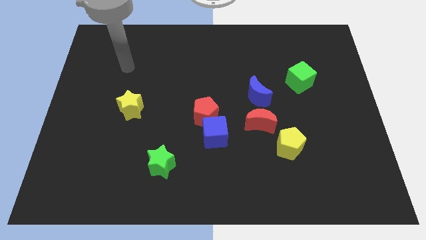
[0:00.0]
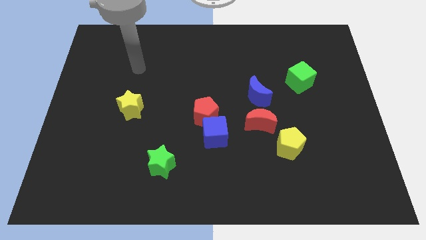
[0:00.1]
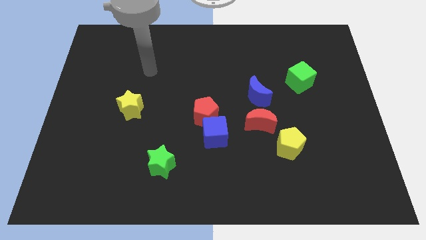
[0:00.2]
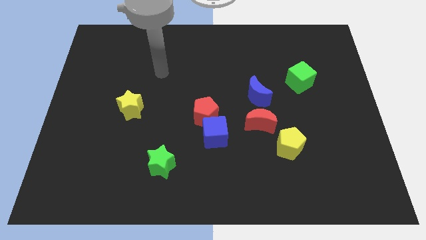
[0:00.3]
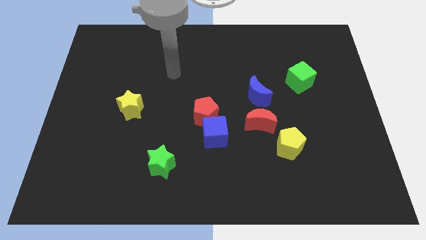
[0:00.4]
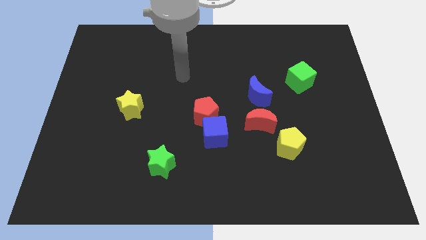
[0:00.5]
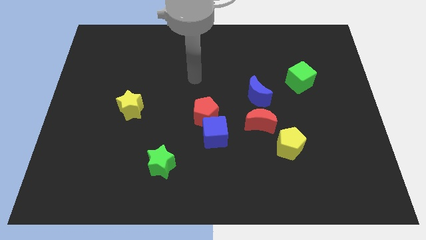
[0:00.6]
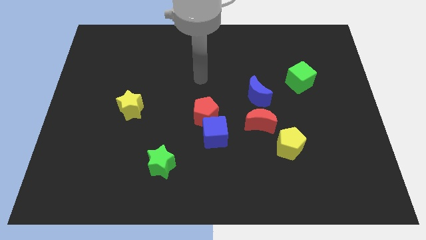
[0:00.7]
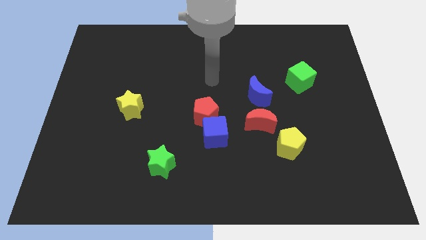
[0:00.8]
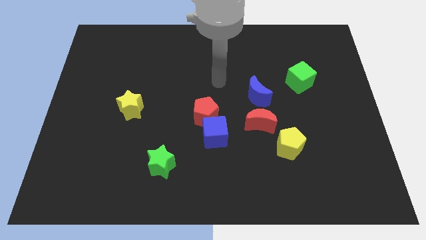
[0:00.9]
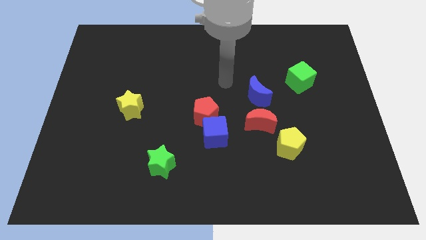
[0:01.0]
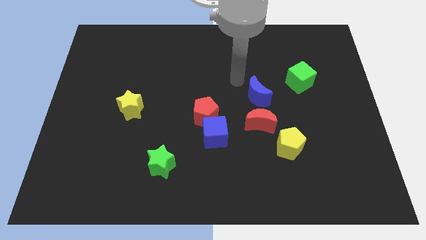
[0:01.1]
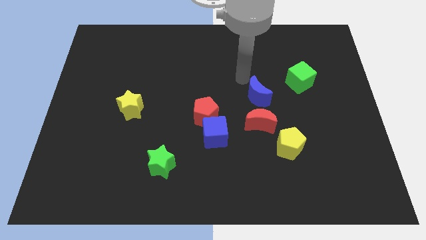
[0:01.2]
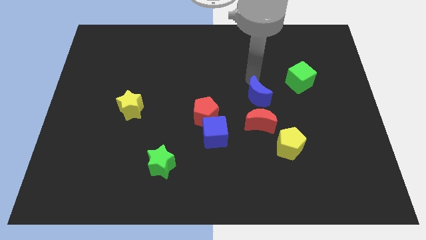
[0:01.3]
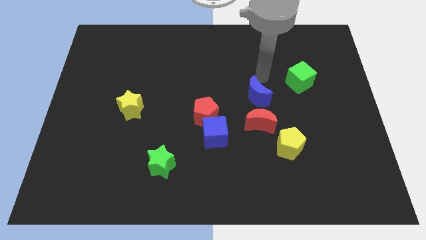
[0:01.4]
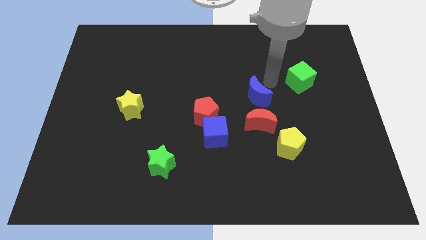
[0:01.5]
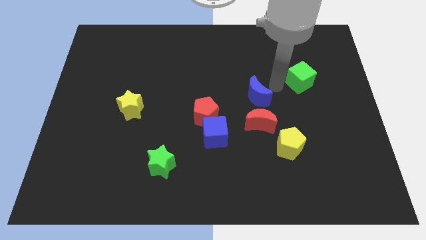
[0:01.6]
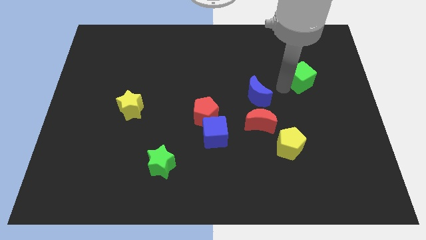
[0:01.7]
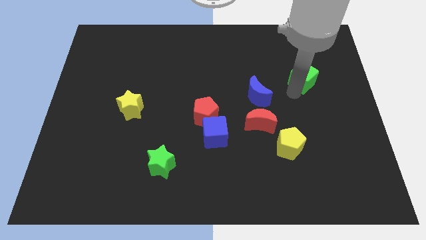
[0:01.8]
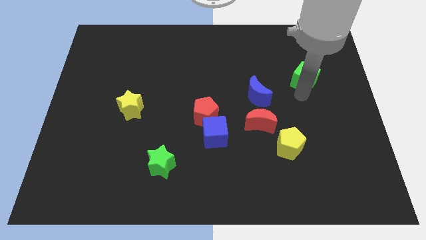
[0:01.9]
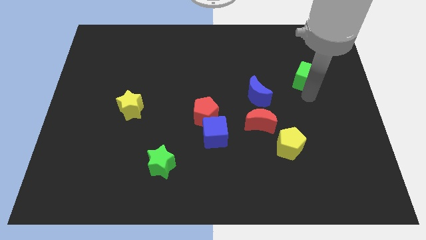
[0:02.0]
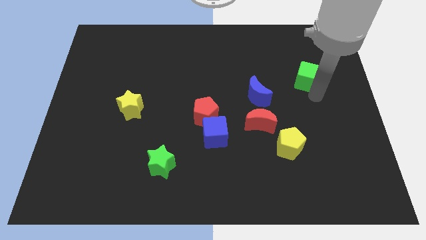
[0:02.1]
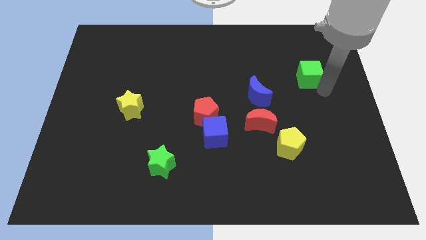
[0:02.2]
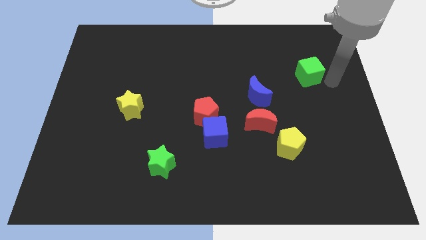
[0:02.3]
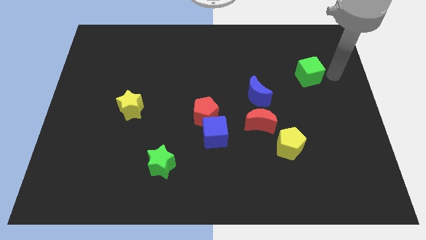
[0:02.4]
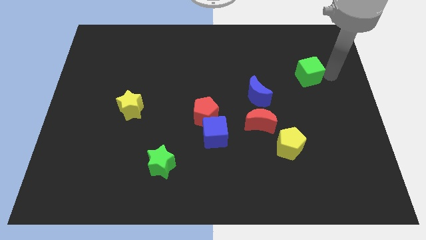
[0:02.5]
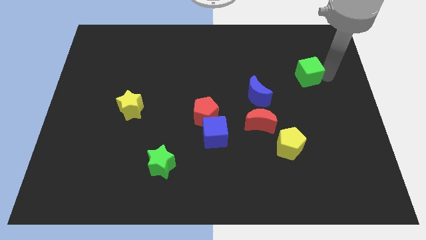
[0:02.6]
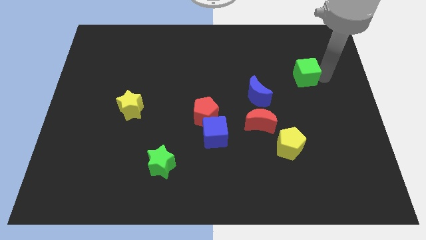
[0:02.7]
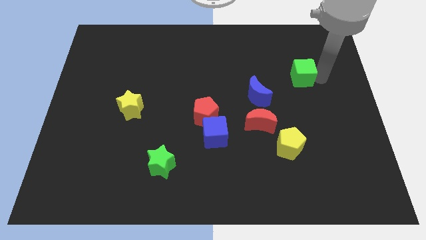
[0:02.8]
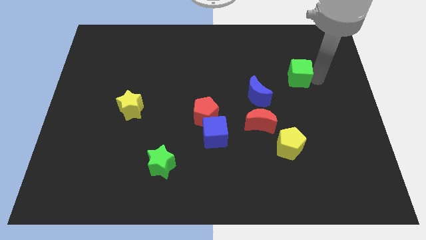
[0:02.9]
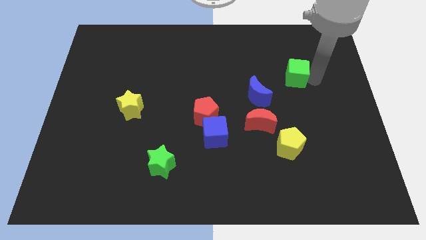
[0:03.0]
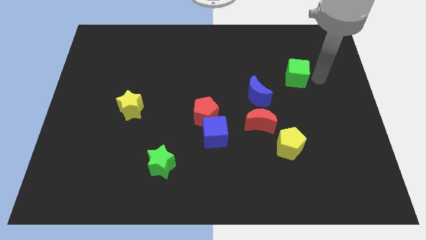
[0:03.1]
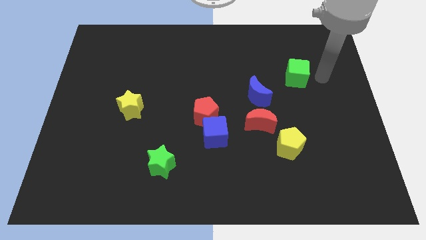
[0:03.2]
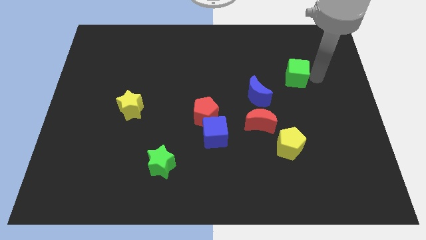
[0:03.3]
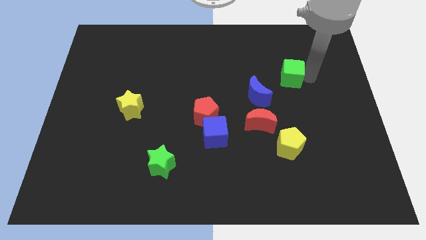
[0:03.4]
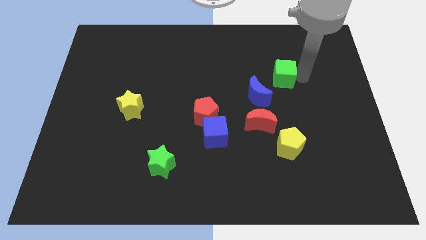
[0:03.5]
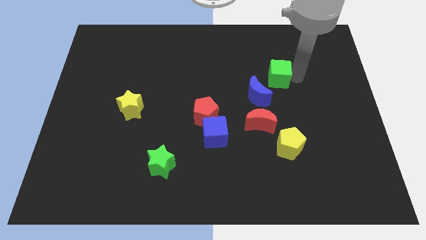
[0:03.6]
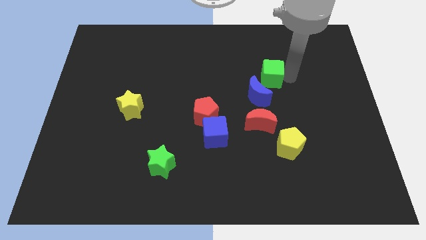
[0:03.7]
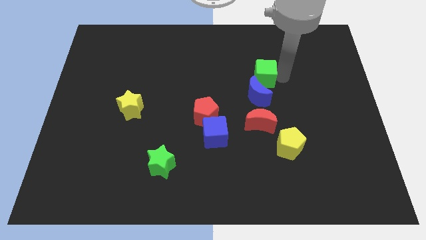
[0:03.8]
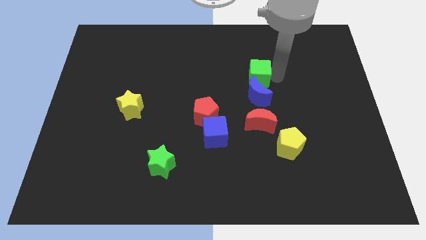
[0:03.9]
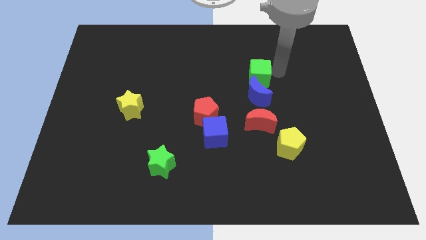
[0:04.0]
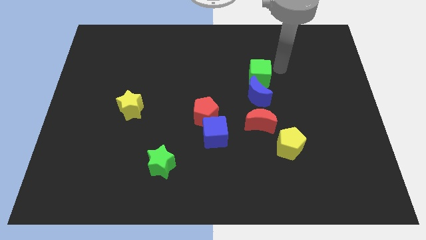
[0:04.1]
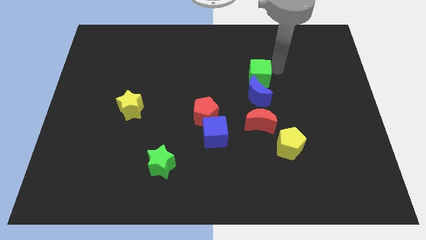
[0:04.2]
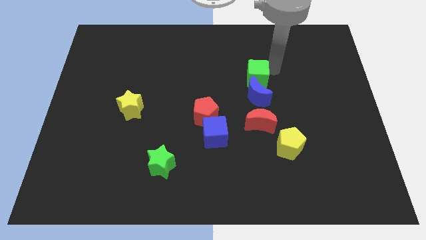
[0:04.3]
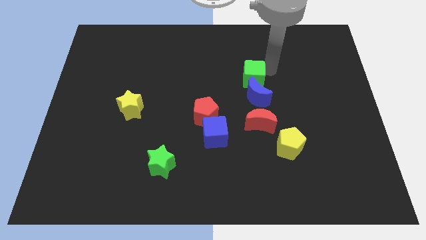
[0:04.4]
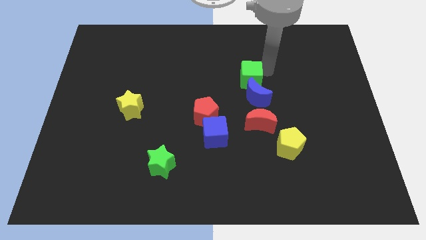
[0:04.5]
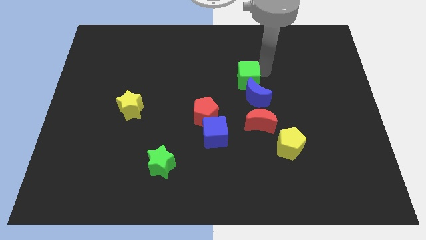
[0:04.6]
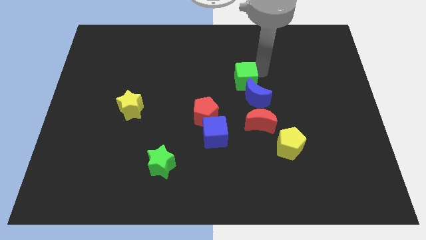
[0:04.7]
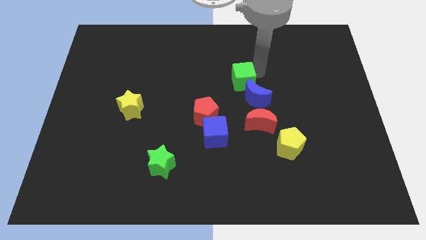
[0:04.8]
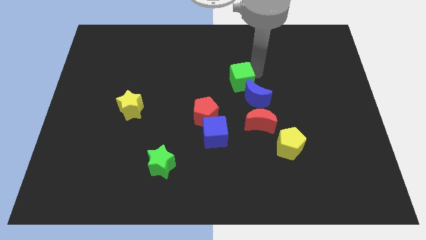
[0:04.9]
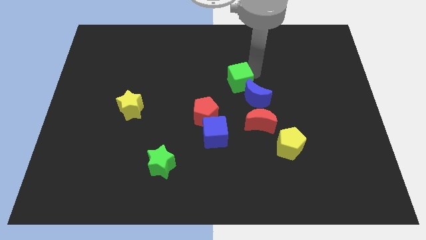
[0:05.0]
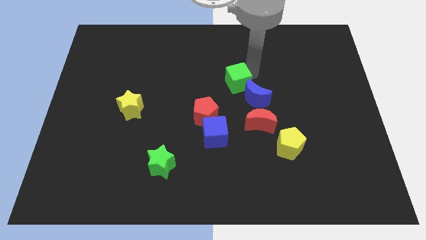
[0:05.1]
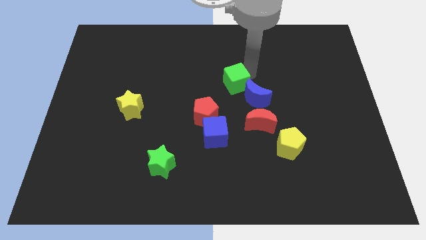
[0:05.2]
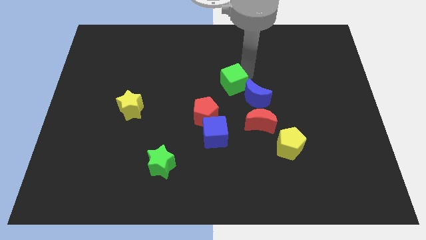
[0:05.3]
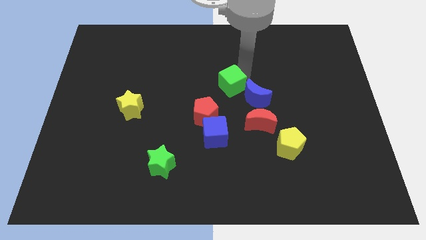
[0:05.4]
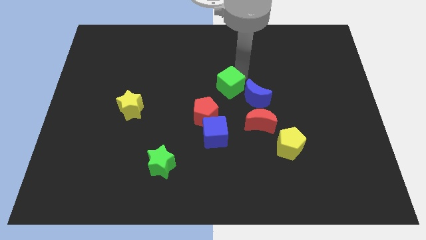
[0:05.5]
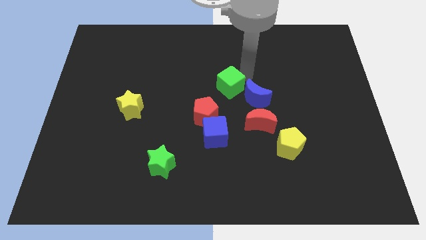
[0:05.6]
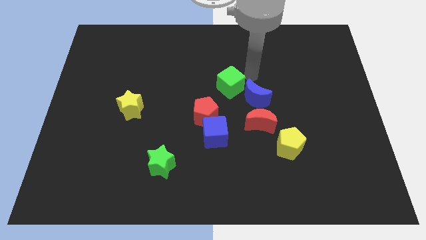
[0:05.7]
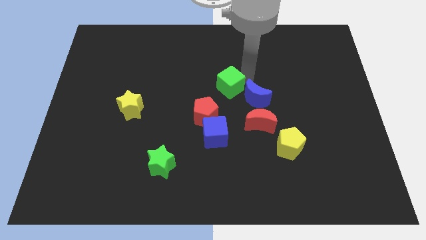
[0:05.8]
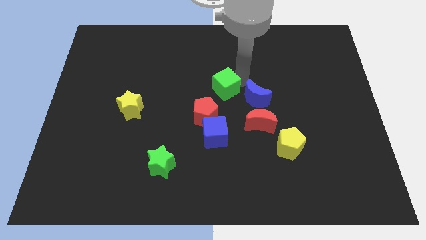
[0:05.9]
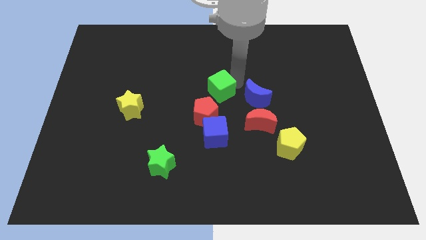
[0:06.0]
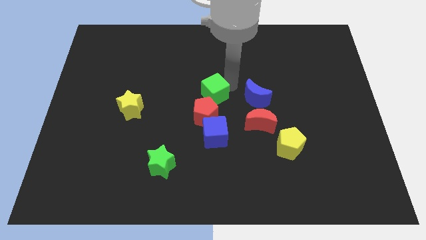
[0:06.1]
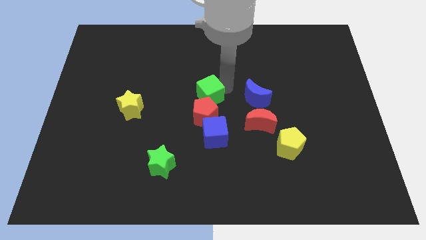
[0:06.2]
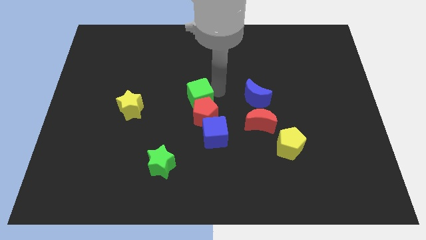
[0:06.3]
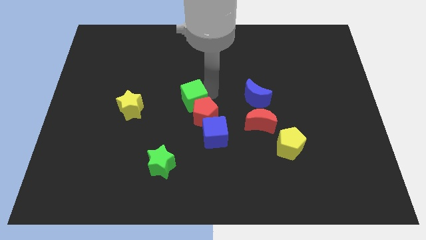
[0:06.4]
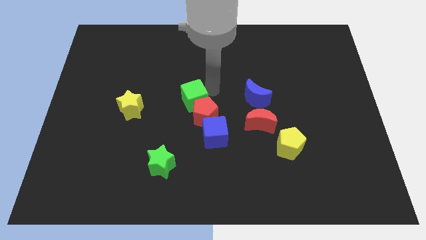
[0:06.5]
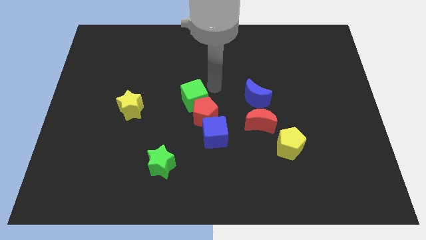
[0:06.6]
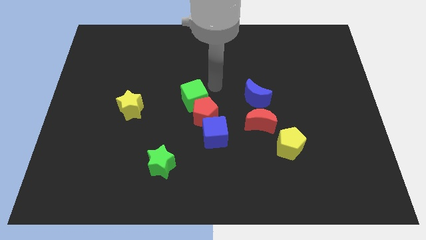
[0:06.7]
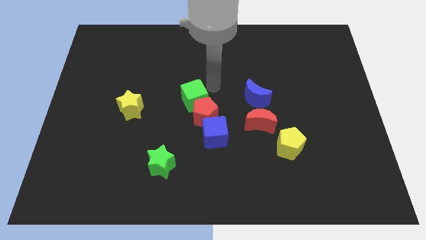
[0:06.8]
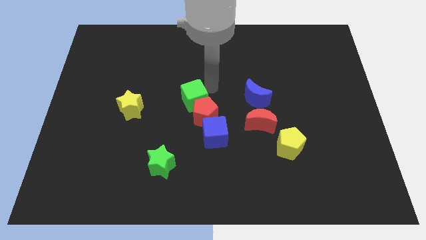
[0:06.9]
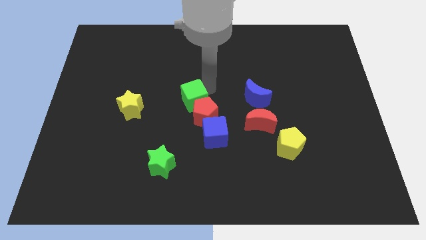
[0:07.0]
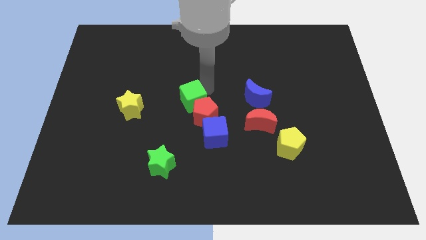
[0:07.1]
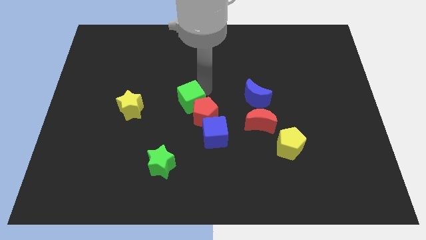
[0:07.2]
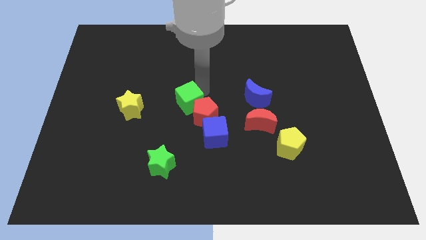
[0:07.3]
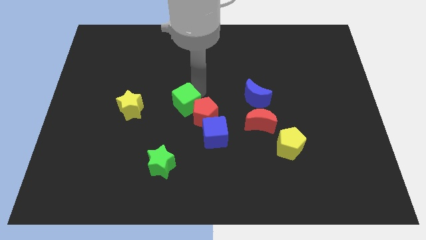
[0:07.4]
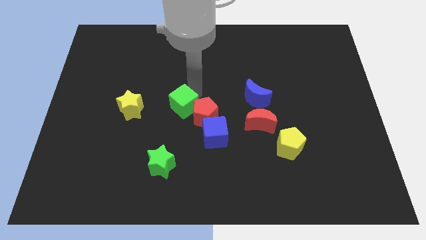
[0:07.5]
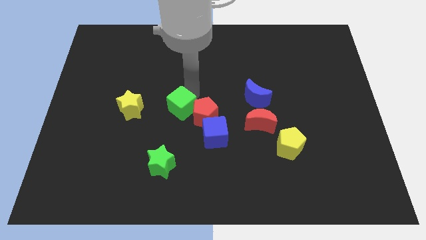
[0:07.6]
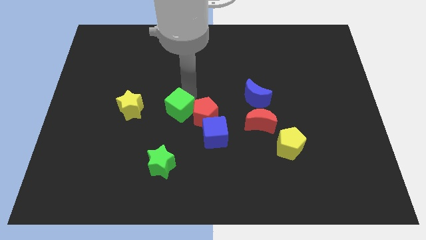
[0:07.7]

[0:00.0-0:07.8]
put the green cube above the green star
